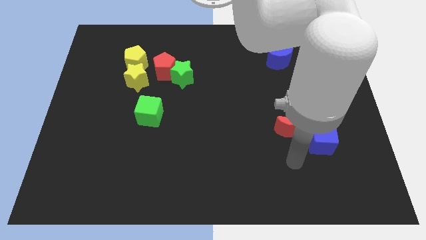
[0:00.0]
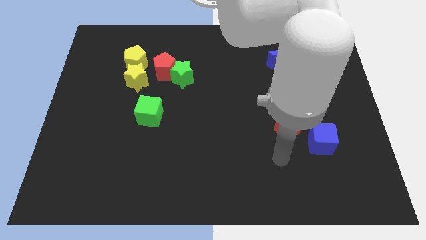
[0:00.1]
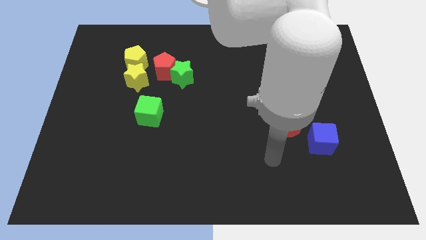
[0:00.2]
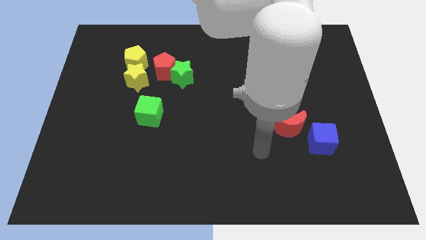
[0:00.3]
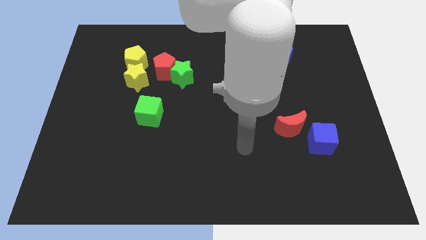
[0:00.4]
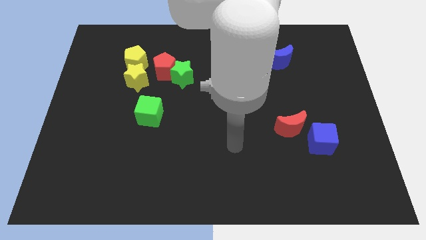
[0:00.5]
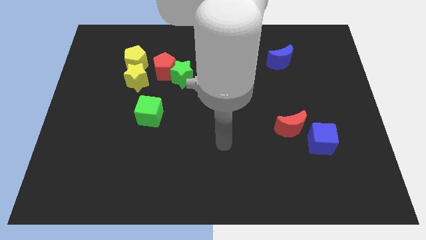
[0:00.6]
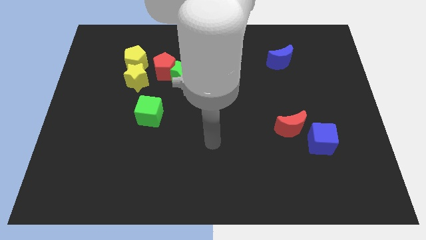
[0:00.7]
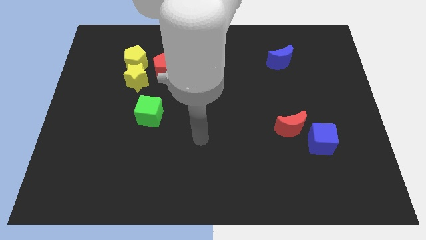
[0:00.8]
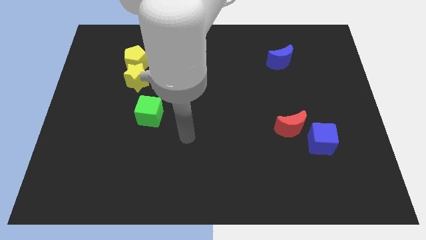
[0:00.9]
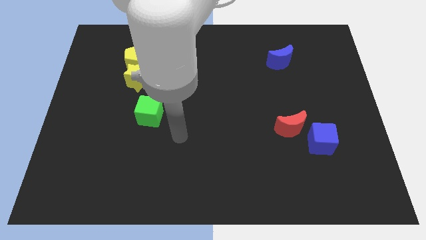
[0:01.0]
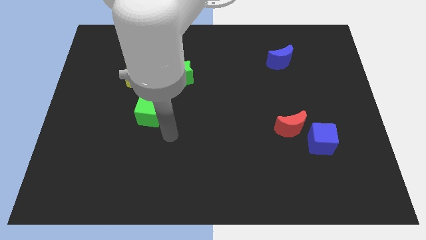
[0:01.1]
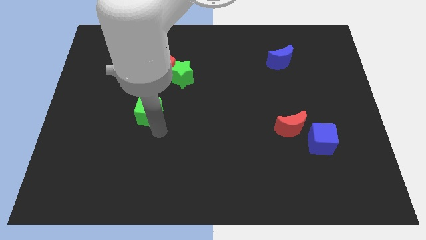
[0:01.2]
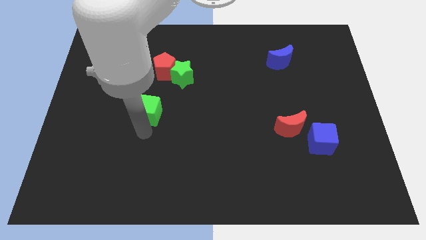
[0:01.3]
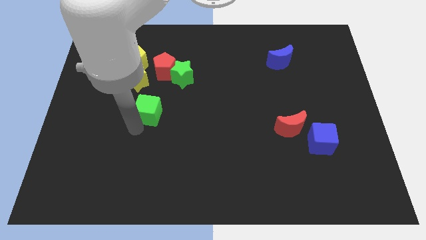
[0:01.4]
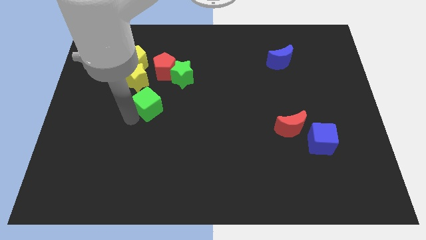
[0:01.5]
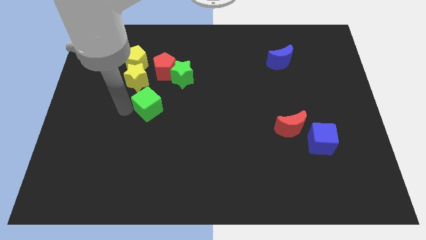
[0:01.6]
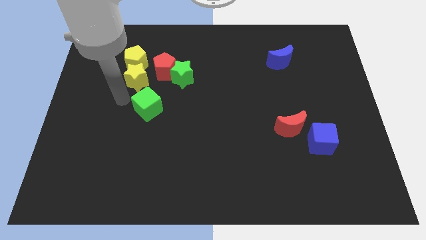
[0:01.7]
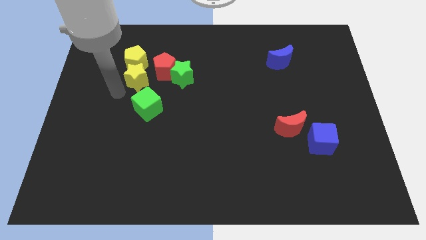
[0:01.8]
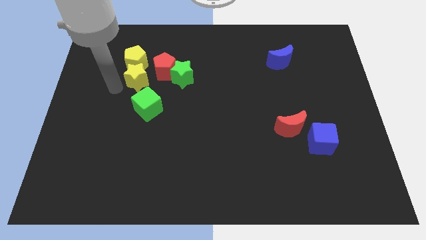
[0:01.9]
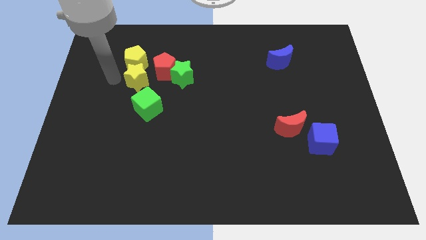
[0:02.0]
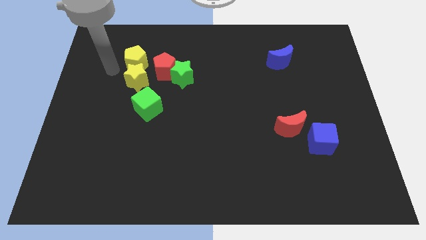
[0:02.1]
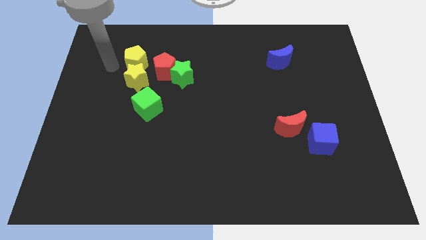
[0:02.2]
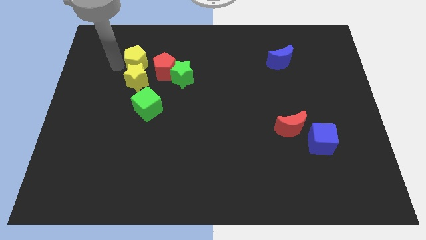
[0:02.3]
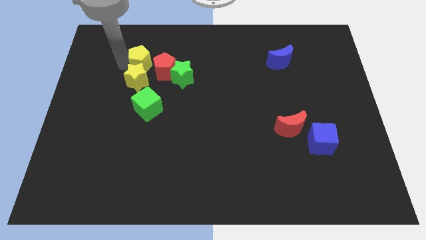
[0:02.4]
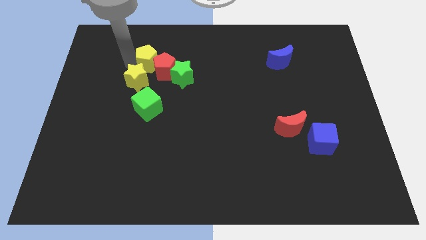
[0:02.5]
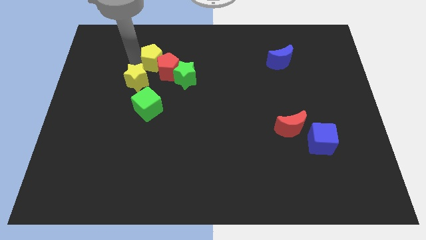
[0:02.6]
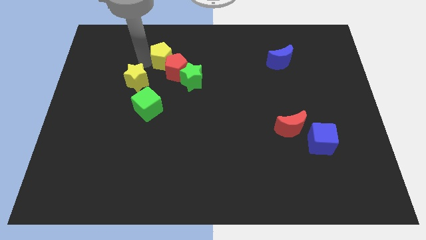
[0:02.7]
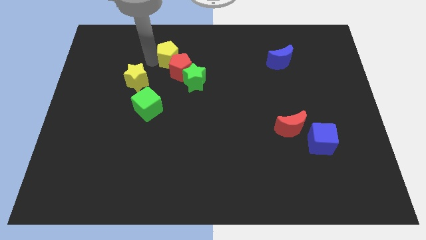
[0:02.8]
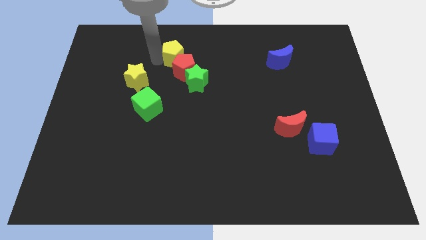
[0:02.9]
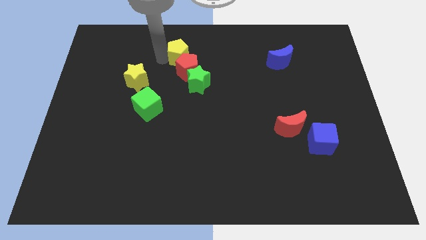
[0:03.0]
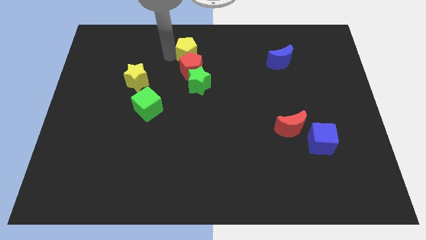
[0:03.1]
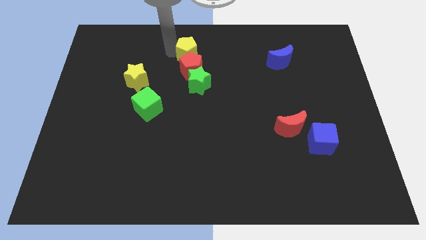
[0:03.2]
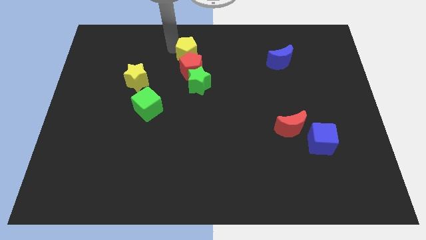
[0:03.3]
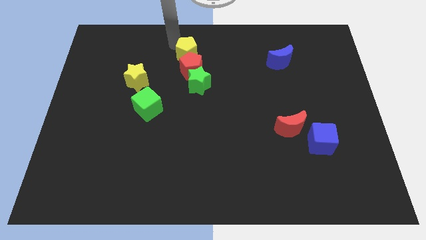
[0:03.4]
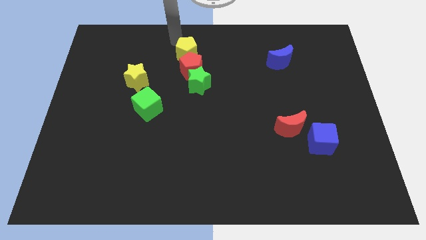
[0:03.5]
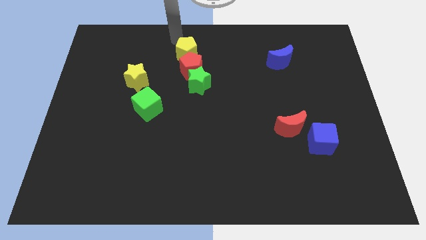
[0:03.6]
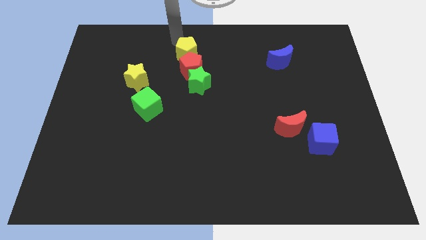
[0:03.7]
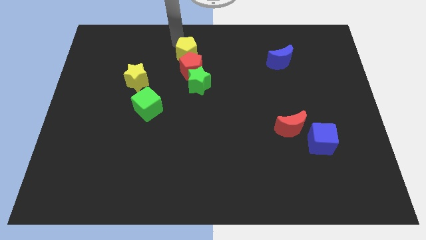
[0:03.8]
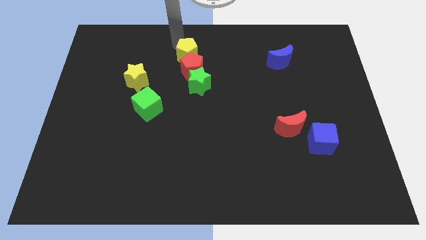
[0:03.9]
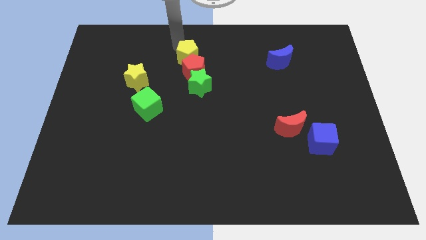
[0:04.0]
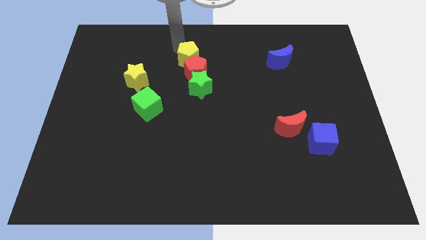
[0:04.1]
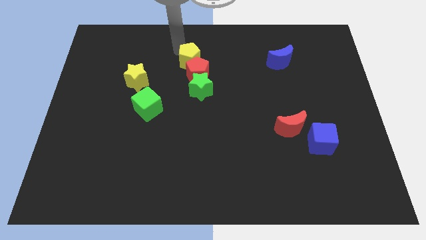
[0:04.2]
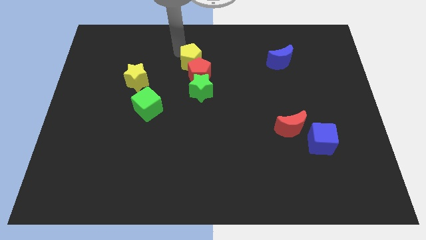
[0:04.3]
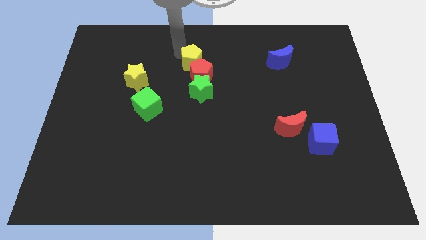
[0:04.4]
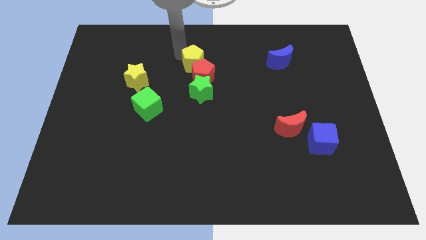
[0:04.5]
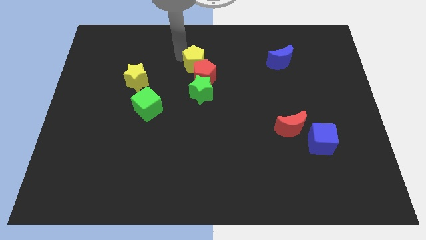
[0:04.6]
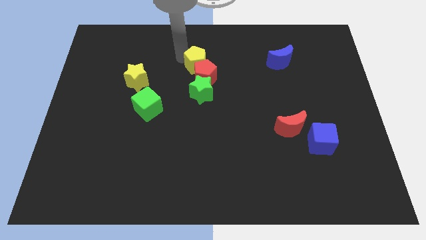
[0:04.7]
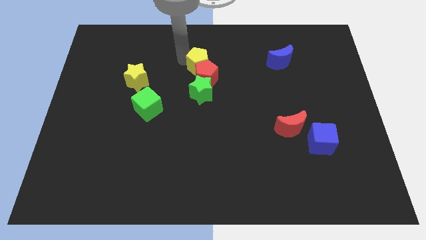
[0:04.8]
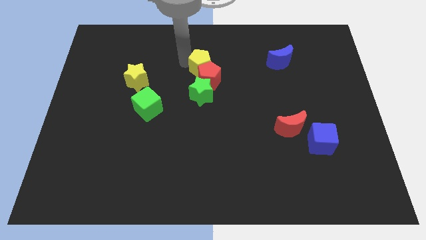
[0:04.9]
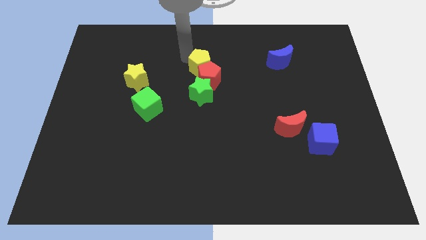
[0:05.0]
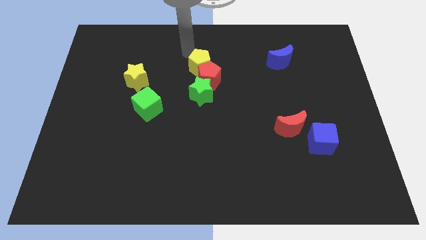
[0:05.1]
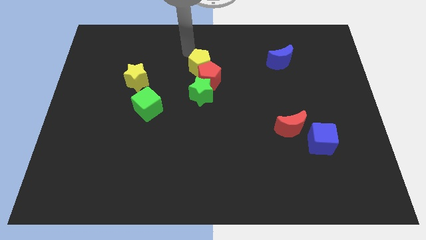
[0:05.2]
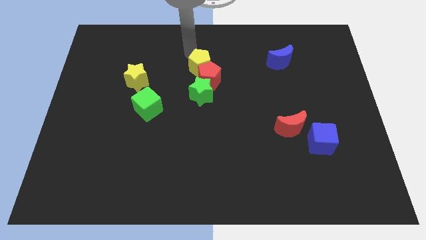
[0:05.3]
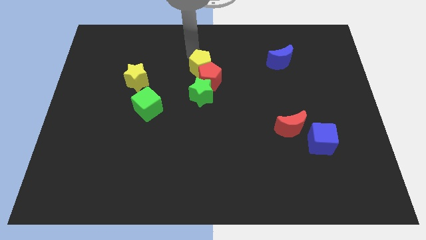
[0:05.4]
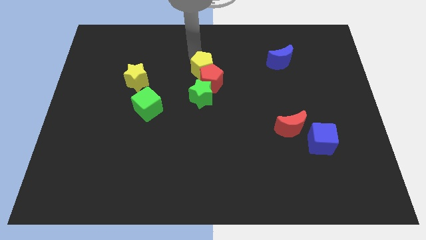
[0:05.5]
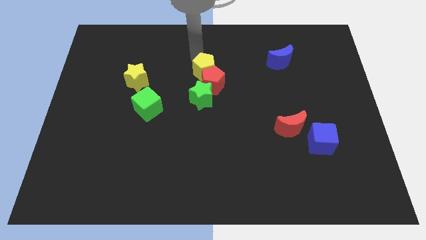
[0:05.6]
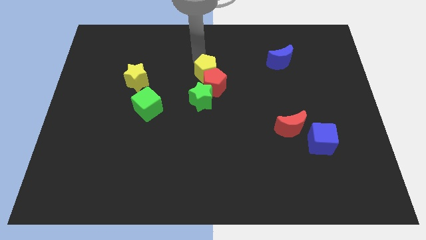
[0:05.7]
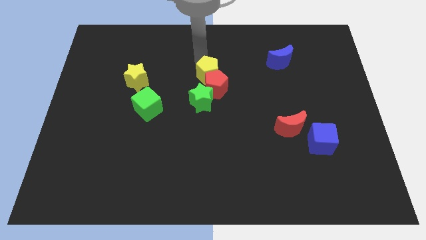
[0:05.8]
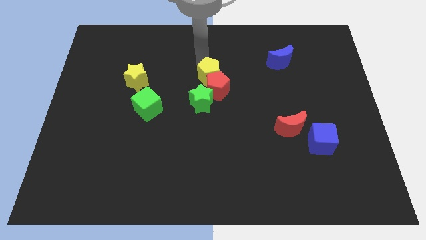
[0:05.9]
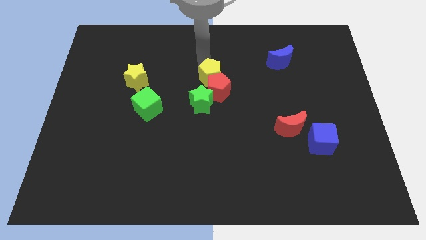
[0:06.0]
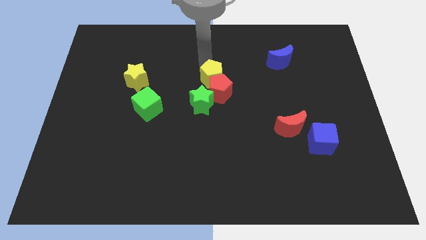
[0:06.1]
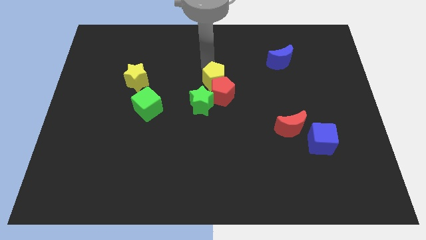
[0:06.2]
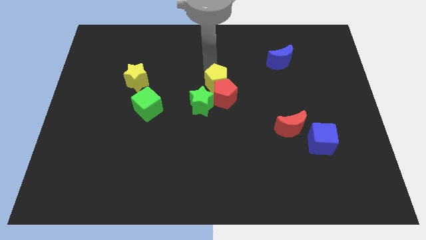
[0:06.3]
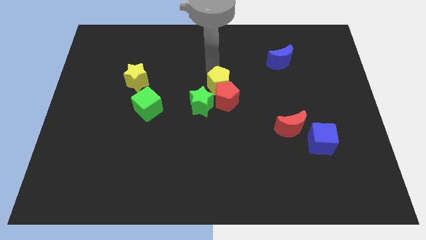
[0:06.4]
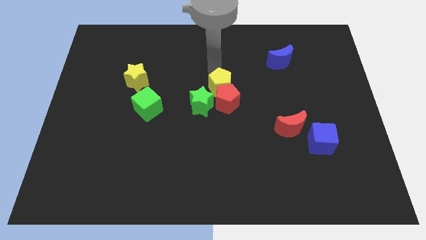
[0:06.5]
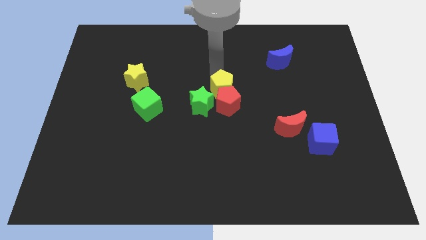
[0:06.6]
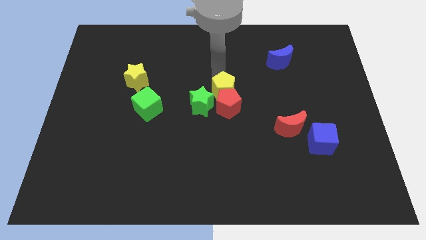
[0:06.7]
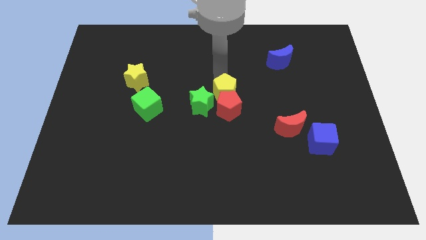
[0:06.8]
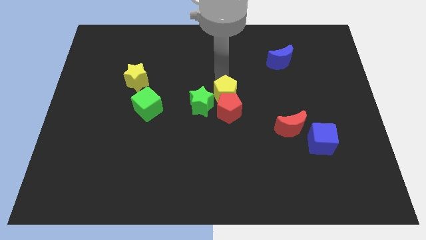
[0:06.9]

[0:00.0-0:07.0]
move the yellow pentagon diagonally down and right

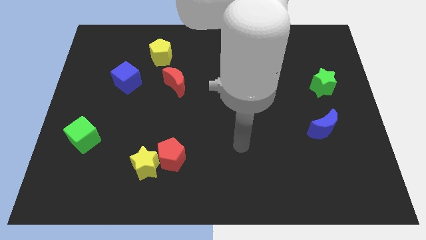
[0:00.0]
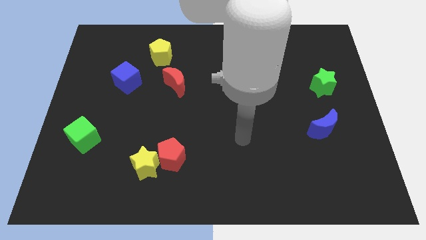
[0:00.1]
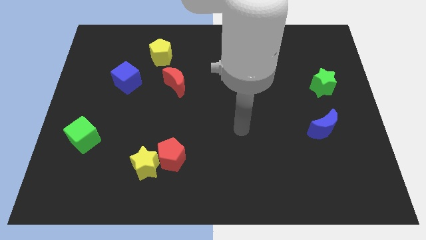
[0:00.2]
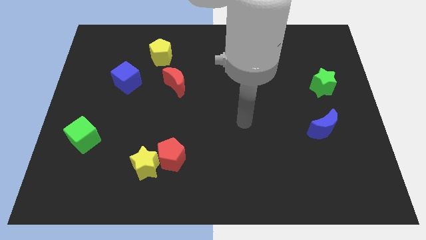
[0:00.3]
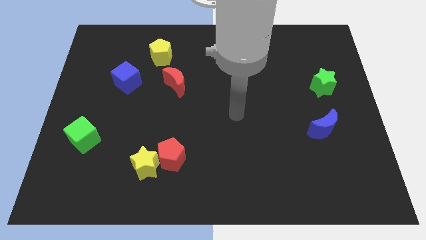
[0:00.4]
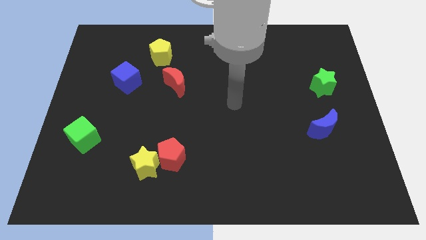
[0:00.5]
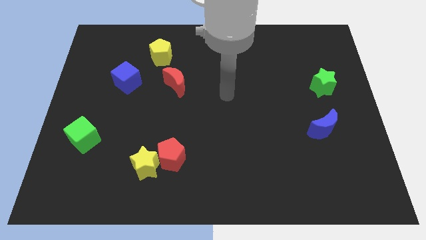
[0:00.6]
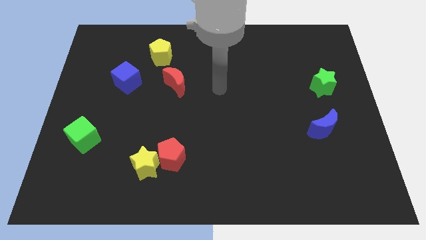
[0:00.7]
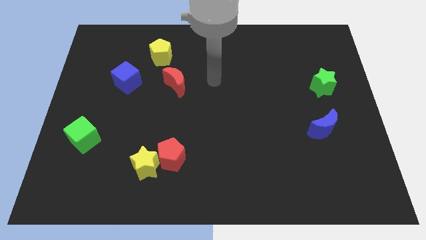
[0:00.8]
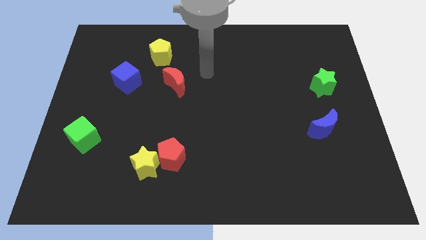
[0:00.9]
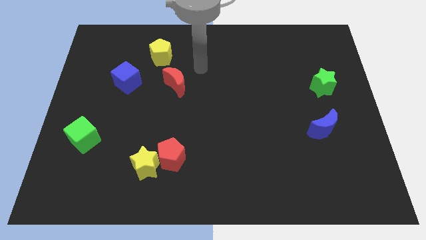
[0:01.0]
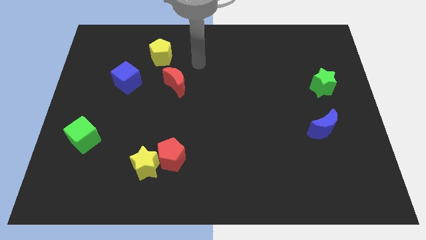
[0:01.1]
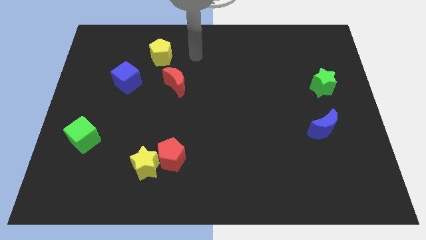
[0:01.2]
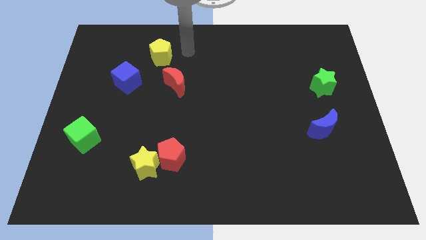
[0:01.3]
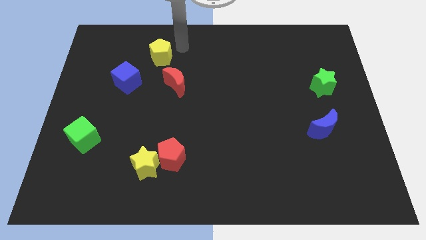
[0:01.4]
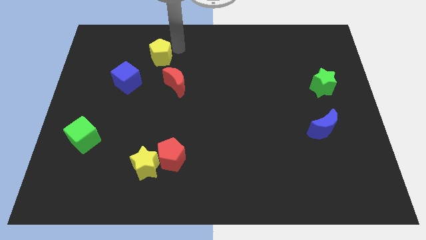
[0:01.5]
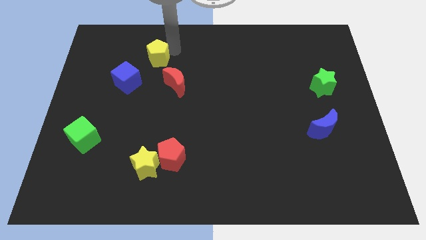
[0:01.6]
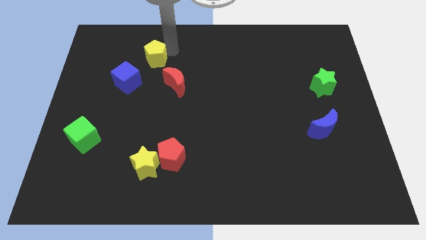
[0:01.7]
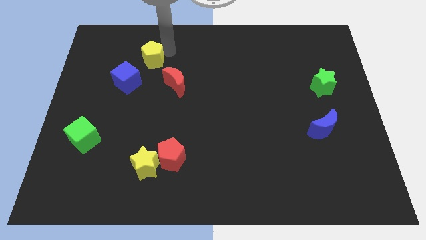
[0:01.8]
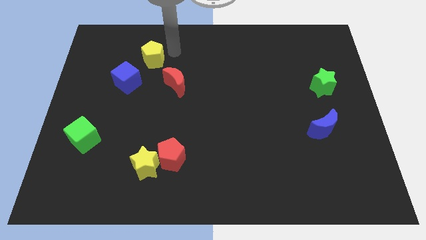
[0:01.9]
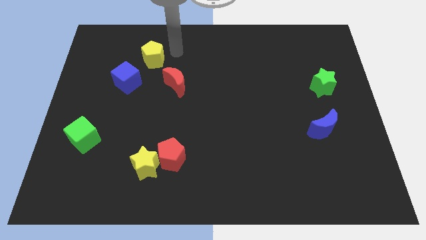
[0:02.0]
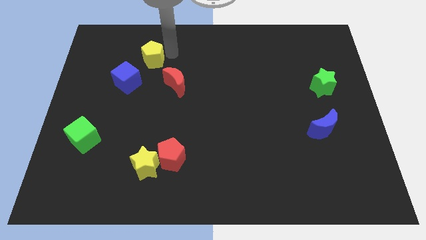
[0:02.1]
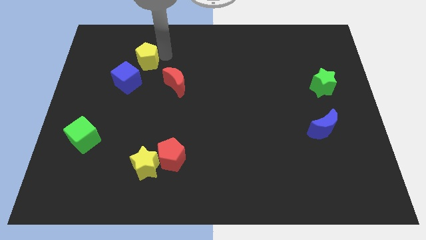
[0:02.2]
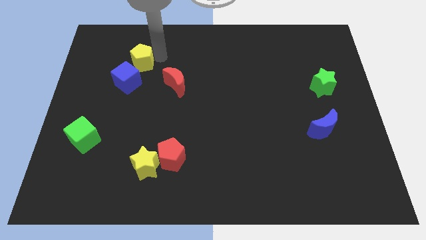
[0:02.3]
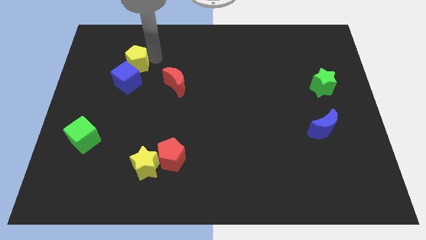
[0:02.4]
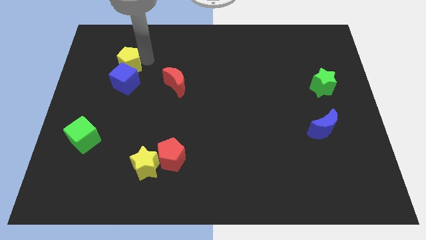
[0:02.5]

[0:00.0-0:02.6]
push the yellow pentagon diagonally down and to the left a little bit
